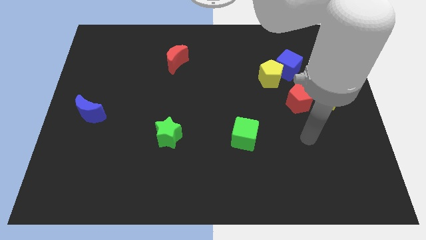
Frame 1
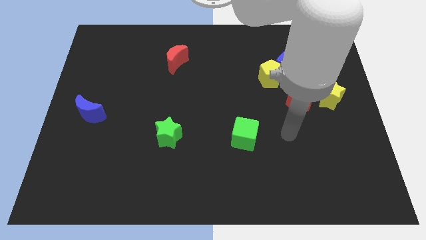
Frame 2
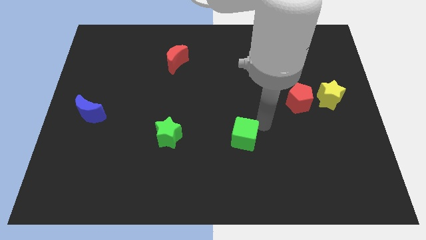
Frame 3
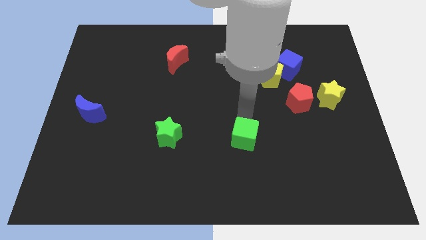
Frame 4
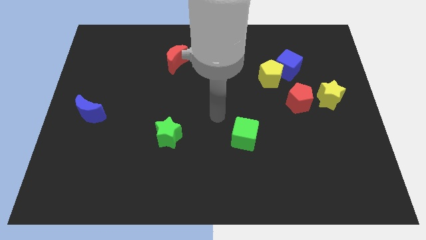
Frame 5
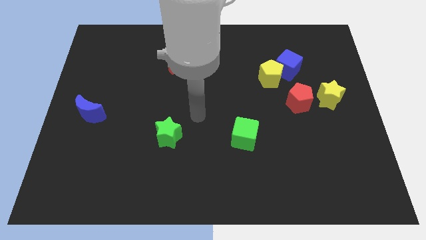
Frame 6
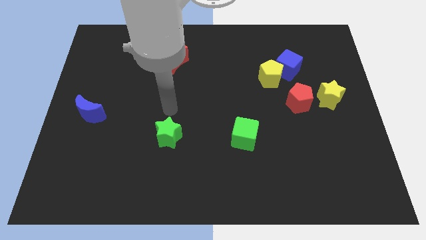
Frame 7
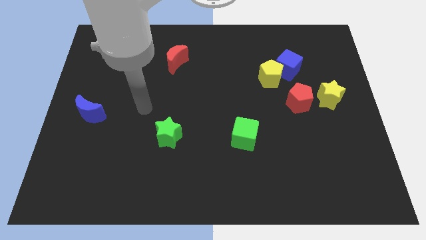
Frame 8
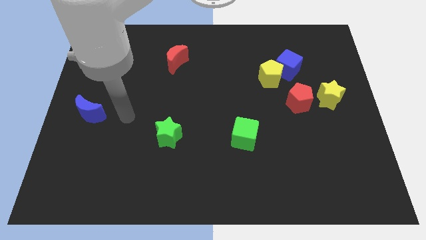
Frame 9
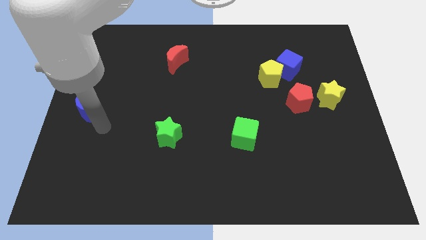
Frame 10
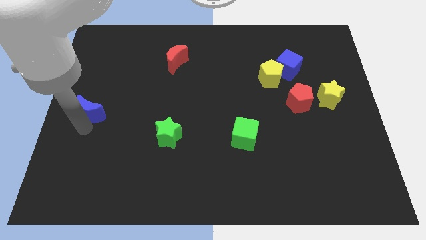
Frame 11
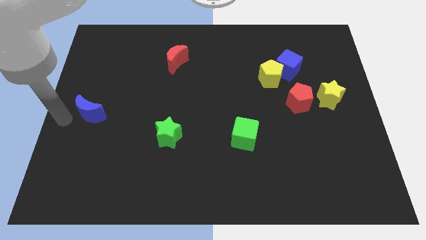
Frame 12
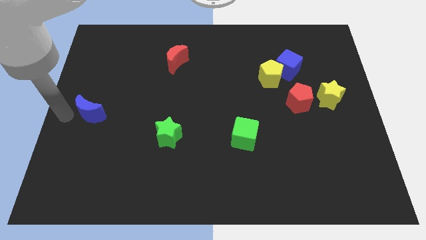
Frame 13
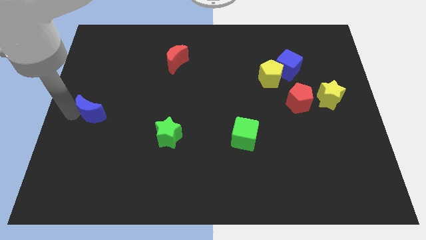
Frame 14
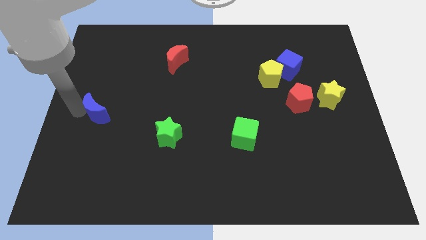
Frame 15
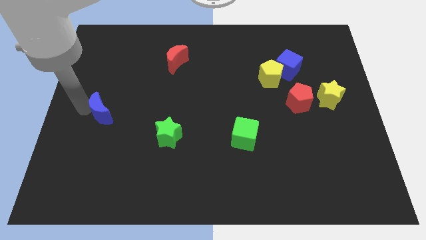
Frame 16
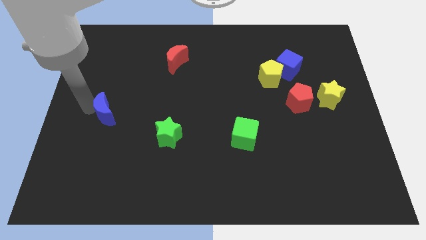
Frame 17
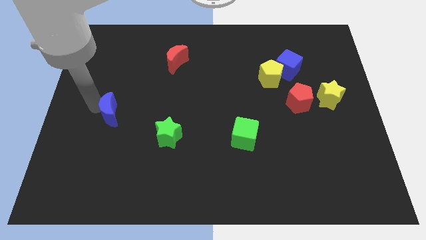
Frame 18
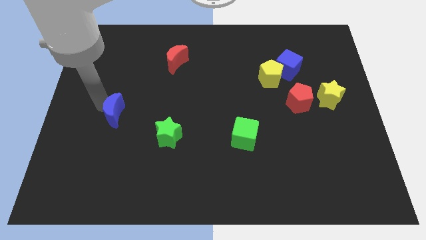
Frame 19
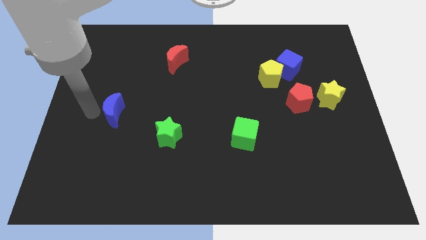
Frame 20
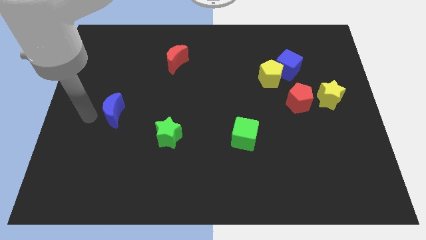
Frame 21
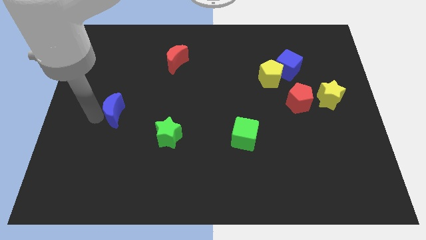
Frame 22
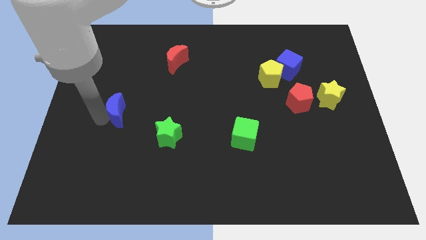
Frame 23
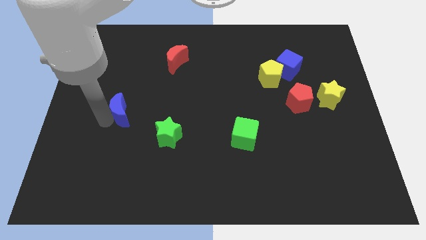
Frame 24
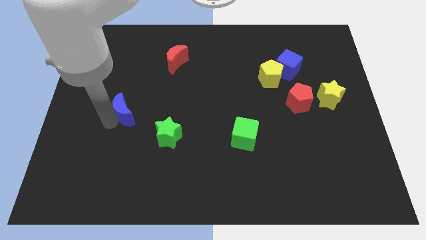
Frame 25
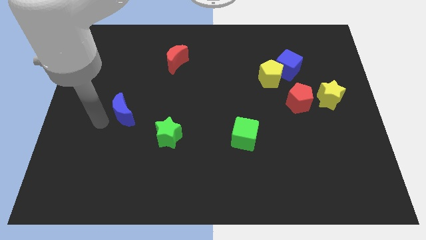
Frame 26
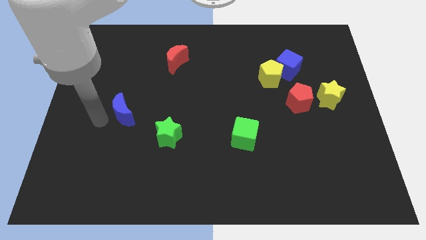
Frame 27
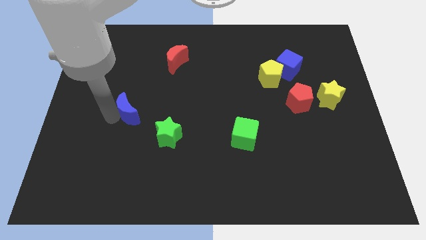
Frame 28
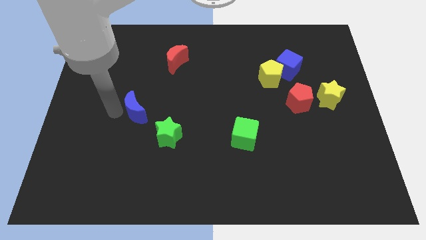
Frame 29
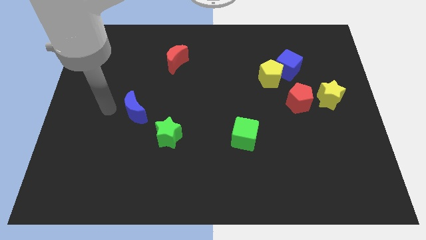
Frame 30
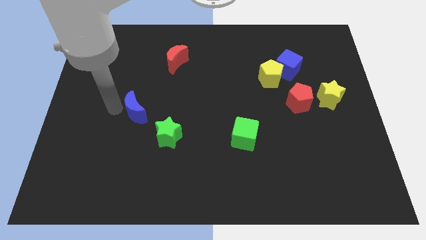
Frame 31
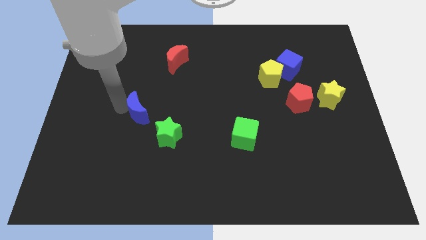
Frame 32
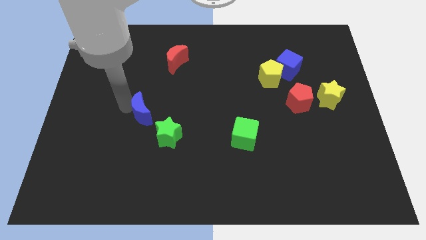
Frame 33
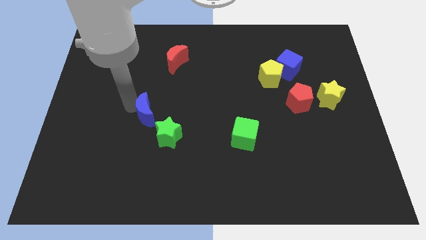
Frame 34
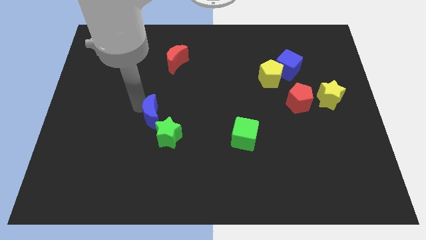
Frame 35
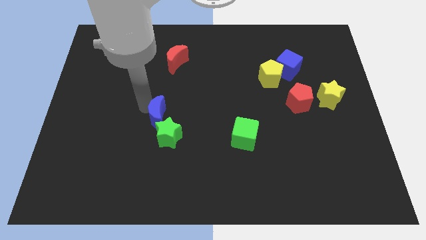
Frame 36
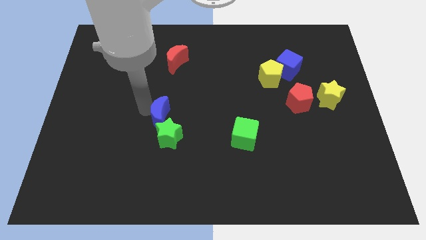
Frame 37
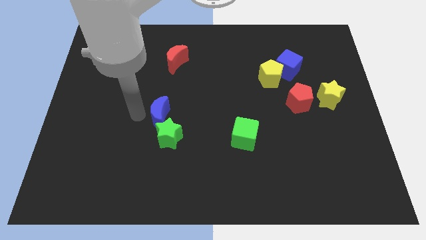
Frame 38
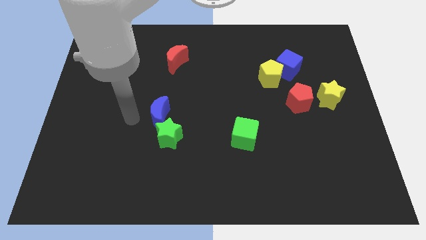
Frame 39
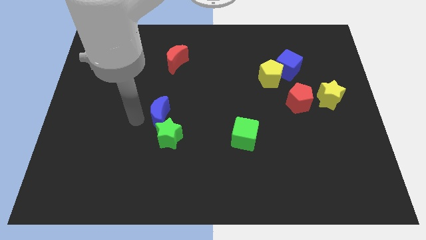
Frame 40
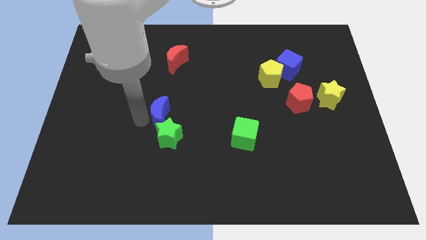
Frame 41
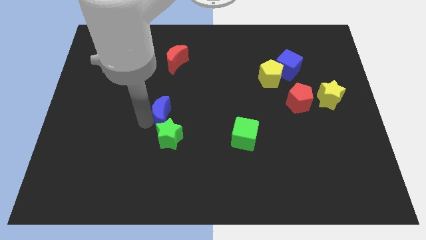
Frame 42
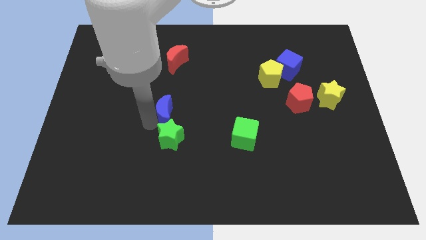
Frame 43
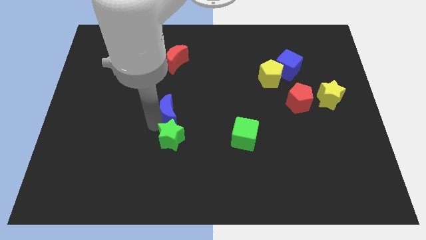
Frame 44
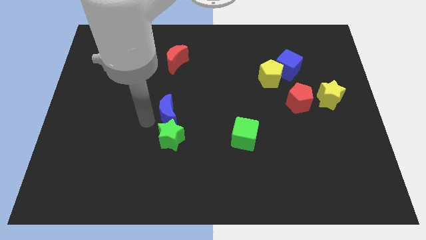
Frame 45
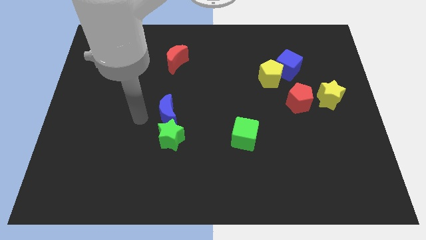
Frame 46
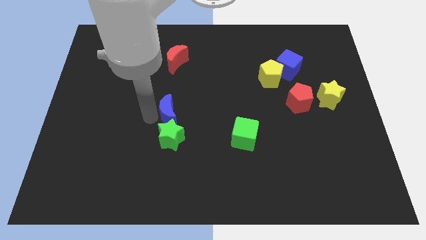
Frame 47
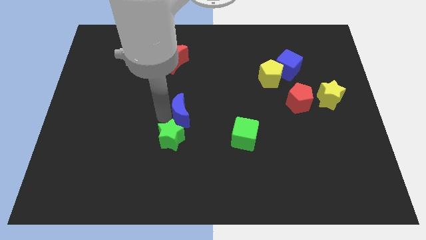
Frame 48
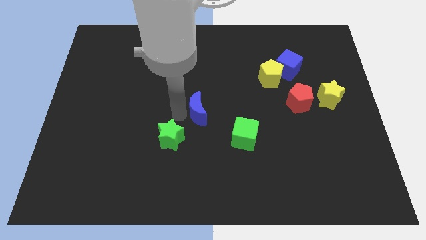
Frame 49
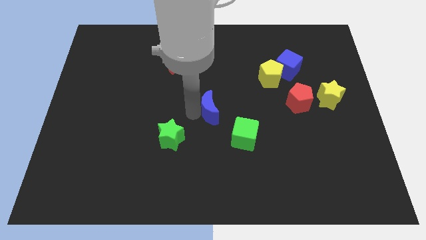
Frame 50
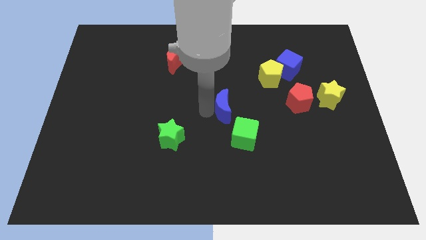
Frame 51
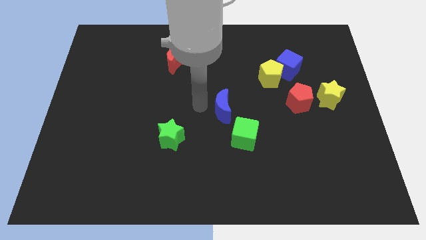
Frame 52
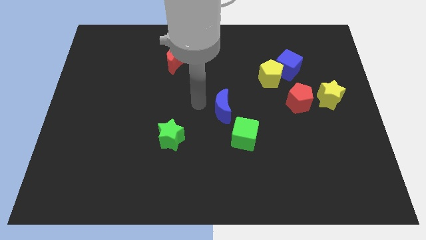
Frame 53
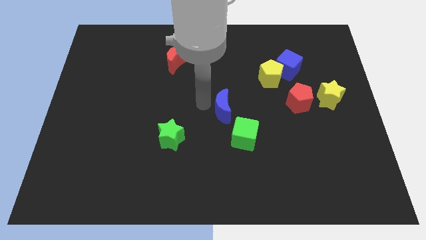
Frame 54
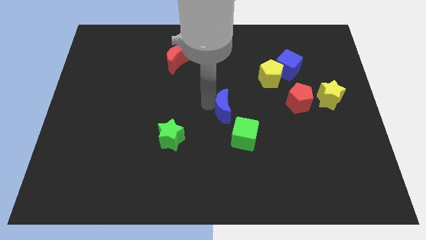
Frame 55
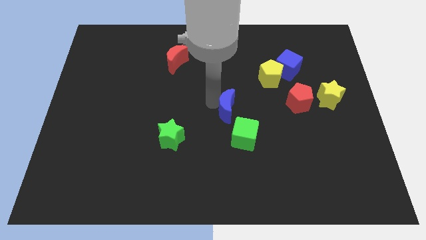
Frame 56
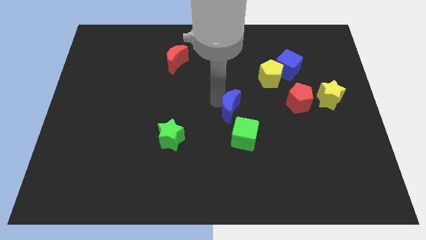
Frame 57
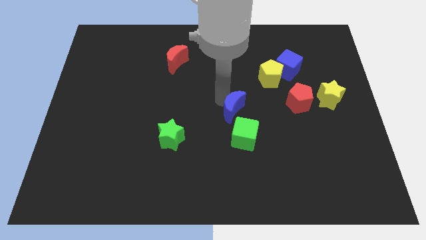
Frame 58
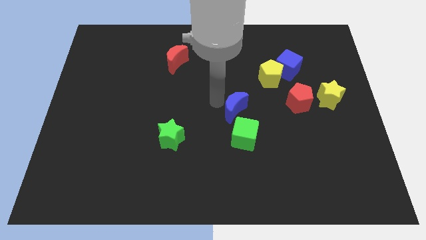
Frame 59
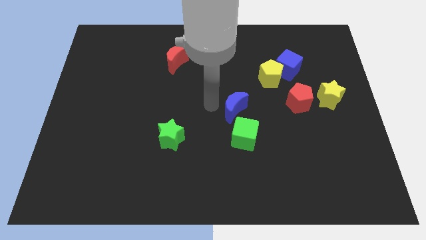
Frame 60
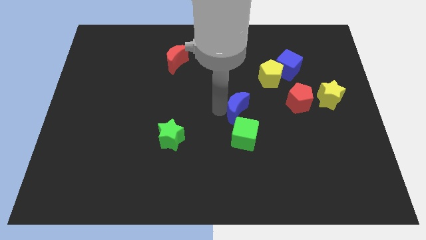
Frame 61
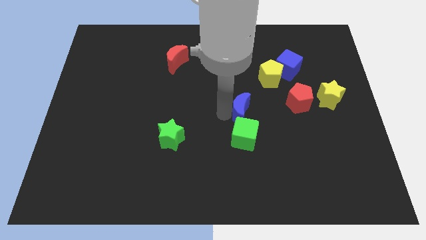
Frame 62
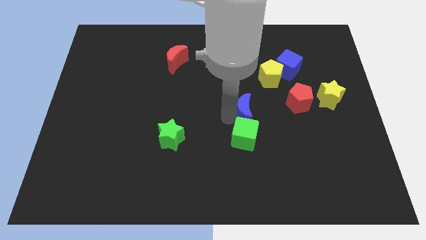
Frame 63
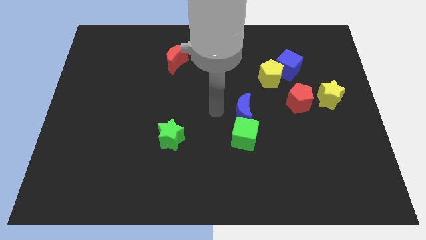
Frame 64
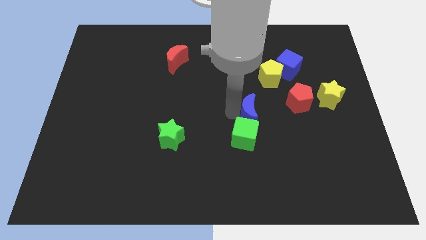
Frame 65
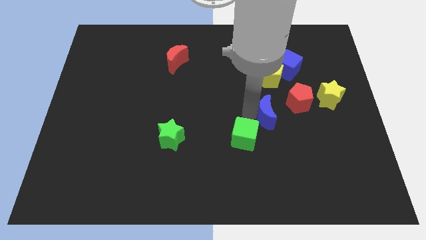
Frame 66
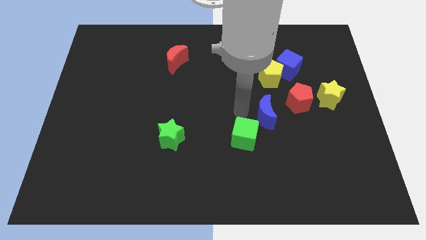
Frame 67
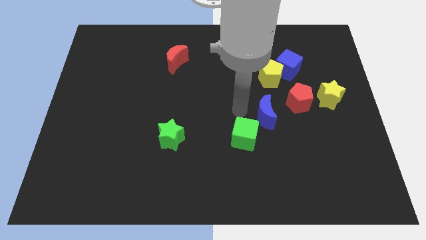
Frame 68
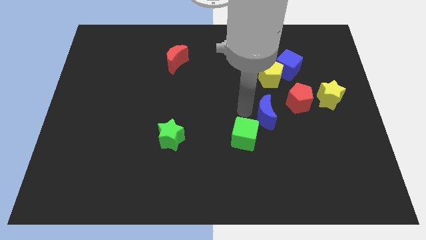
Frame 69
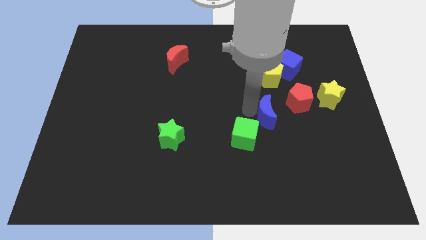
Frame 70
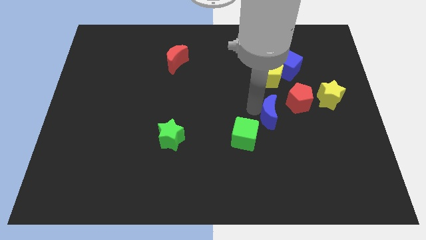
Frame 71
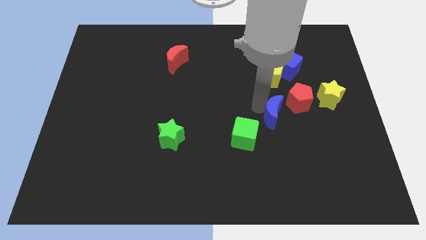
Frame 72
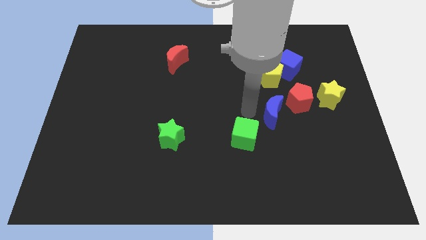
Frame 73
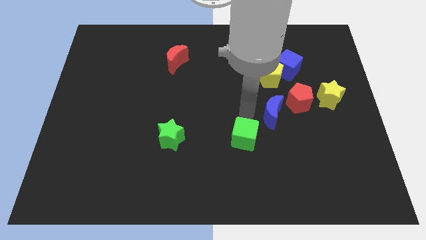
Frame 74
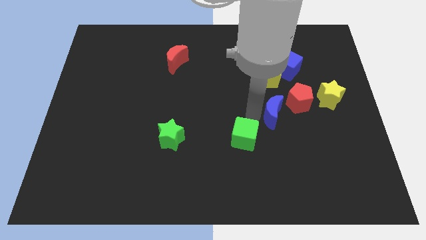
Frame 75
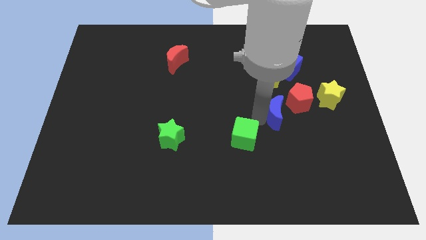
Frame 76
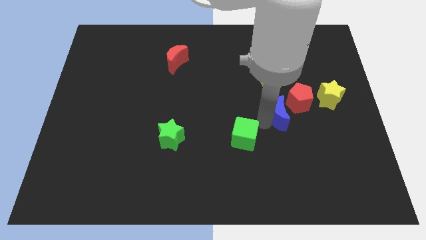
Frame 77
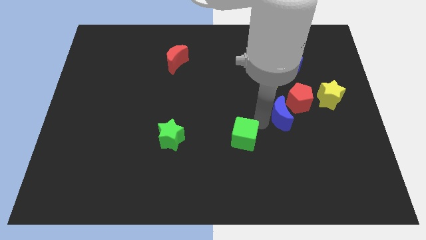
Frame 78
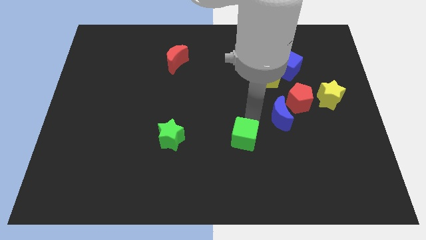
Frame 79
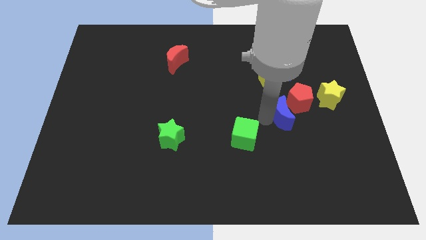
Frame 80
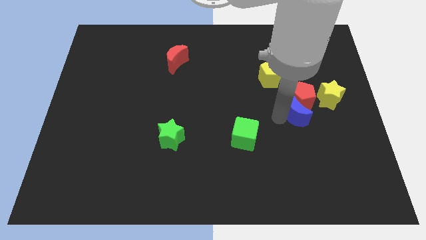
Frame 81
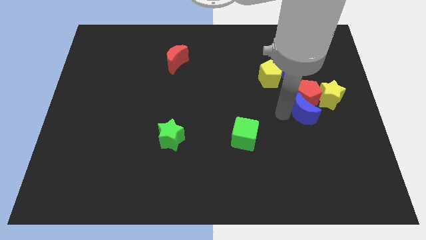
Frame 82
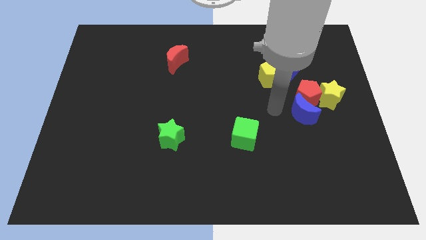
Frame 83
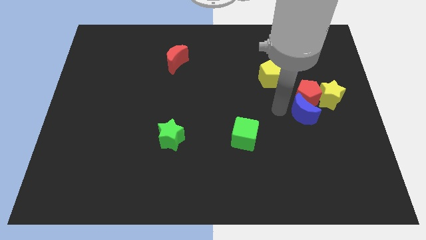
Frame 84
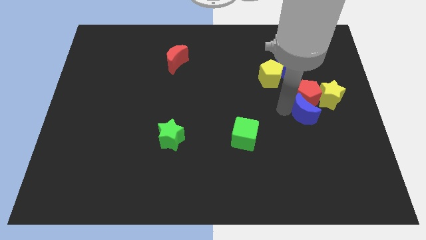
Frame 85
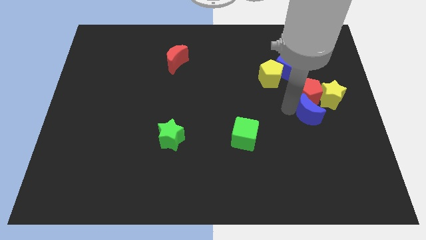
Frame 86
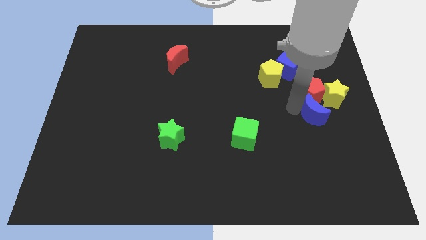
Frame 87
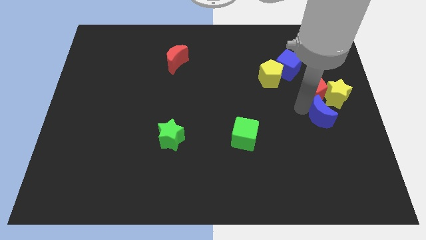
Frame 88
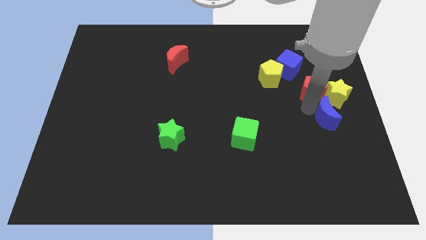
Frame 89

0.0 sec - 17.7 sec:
move the blue moon to the center right
